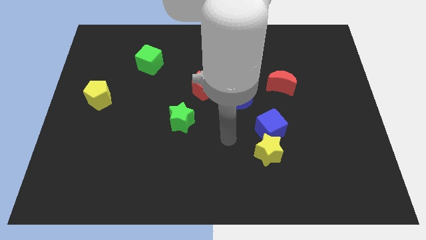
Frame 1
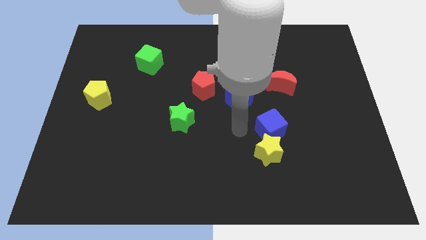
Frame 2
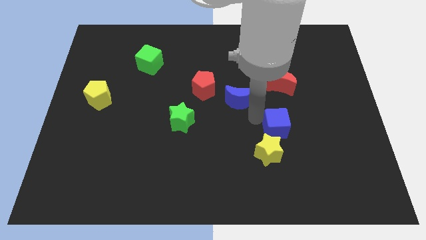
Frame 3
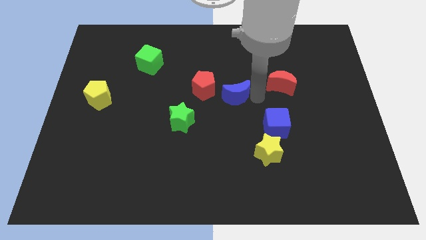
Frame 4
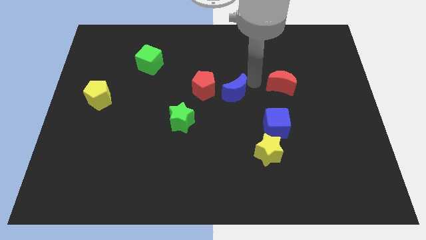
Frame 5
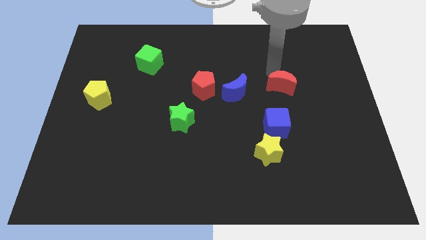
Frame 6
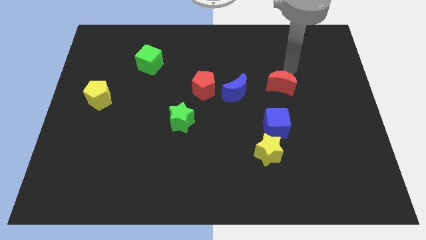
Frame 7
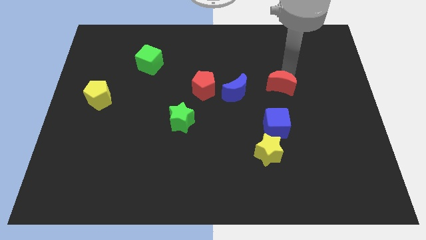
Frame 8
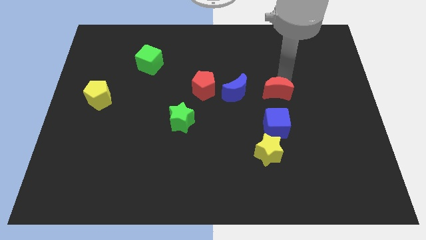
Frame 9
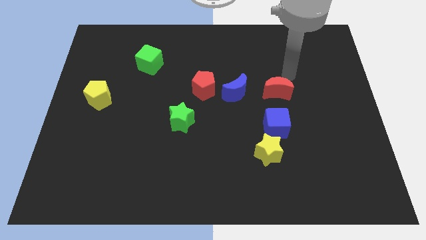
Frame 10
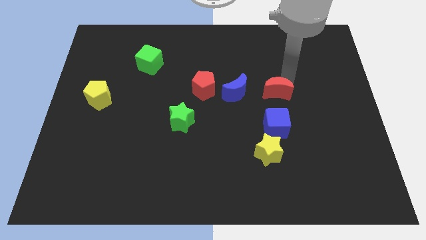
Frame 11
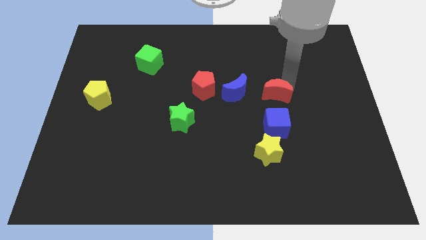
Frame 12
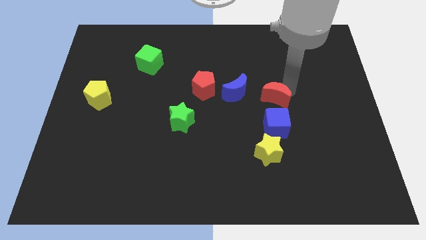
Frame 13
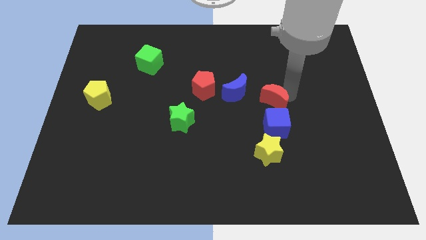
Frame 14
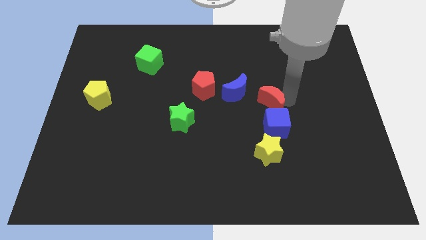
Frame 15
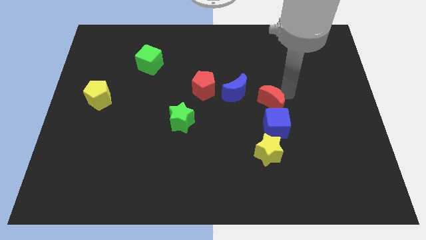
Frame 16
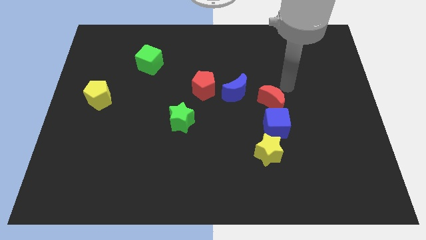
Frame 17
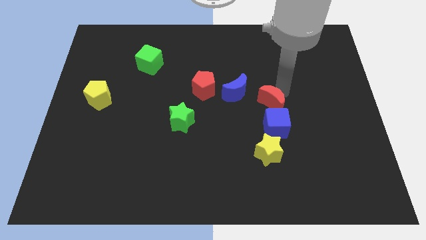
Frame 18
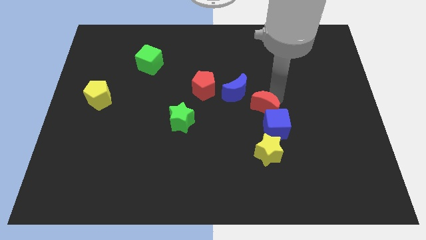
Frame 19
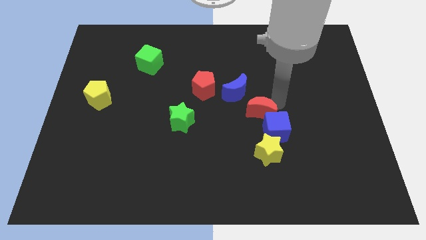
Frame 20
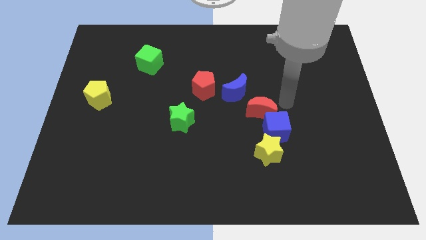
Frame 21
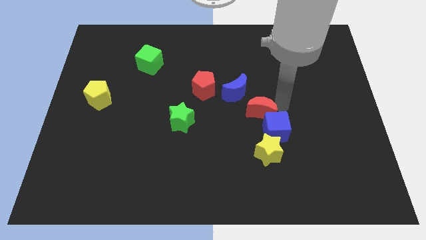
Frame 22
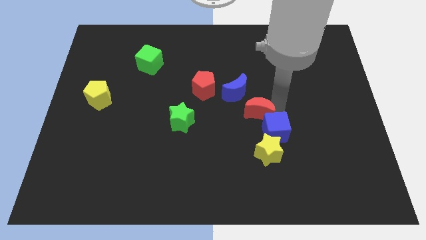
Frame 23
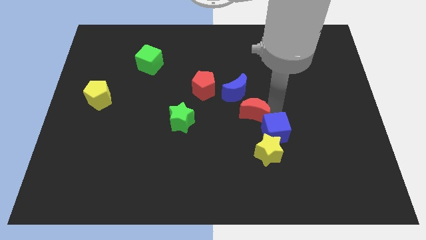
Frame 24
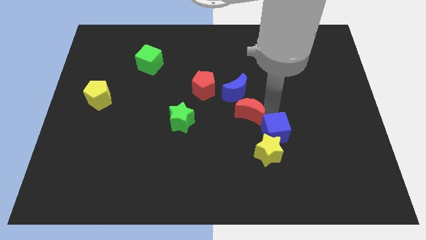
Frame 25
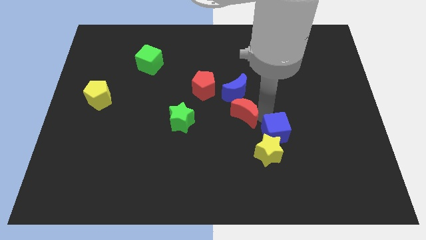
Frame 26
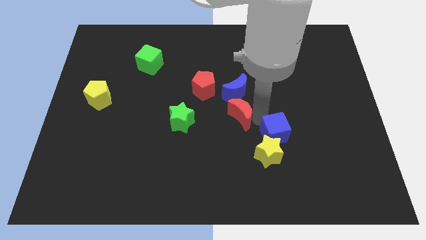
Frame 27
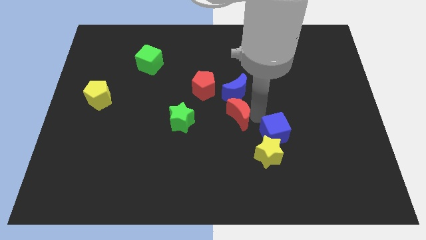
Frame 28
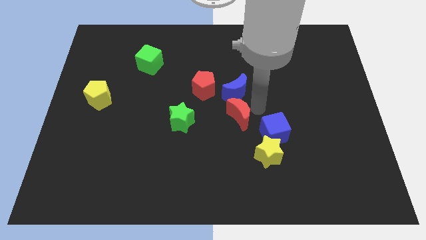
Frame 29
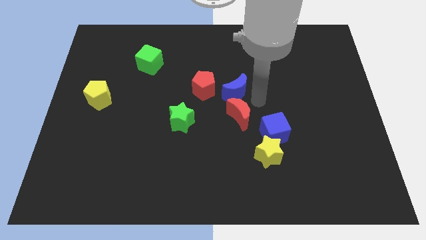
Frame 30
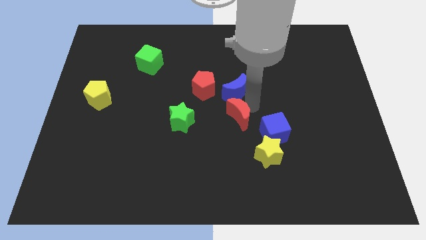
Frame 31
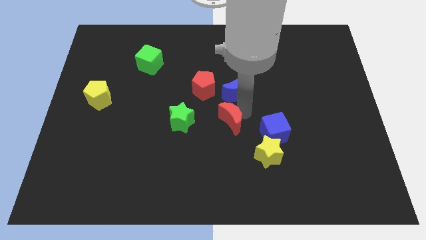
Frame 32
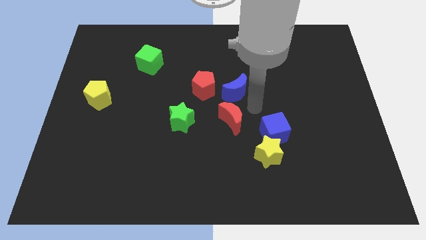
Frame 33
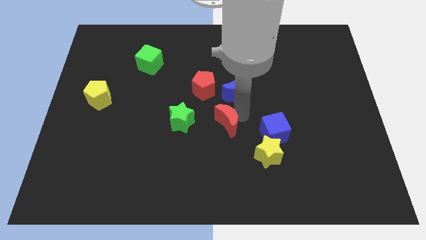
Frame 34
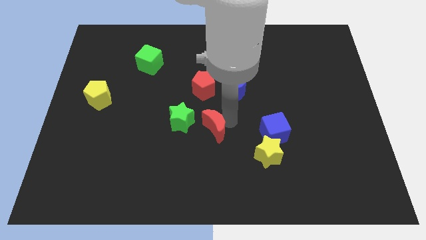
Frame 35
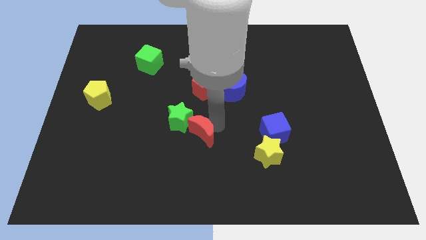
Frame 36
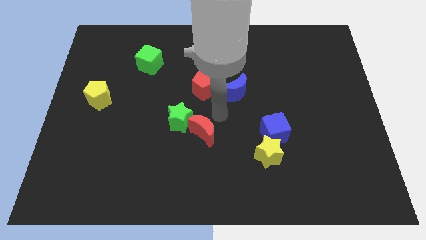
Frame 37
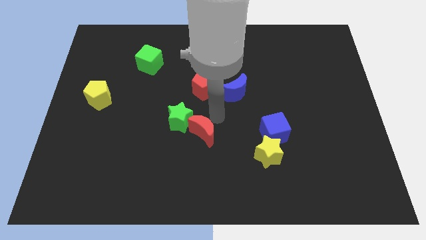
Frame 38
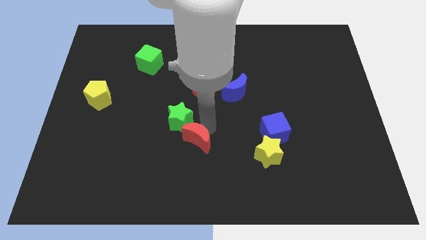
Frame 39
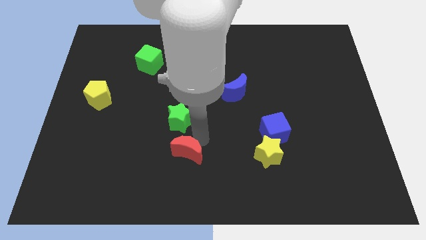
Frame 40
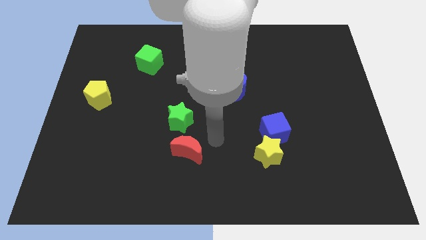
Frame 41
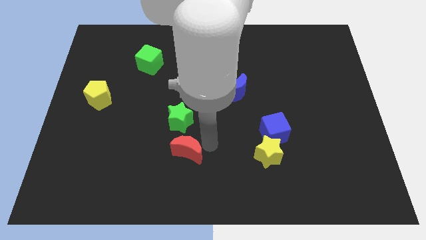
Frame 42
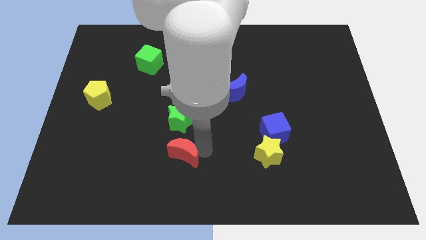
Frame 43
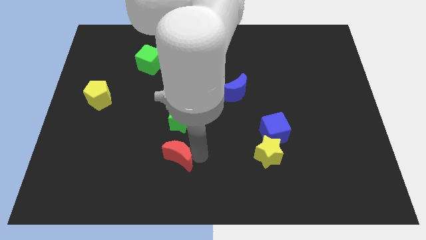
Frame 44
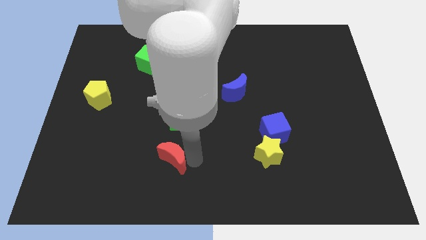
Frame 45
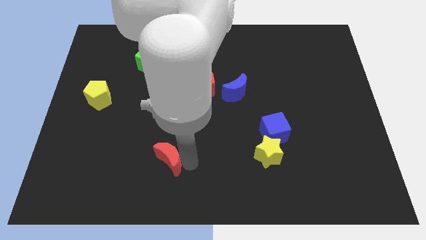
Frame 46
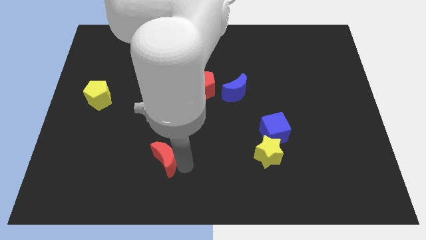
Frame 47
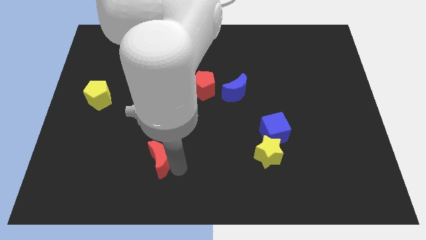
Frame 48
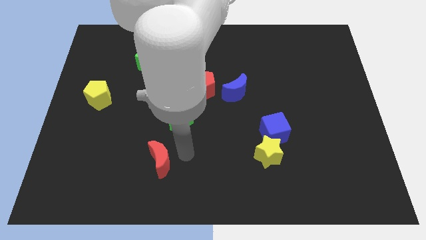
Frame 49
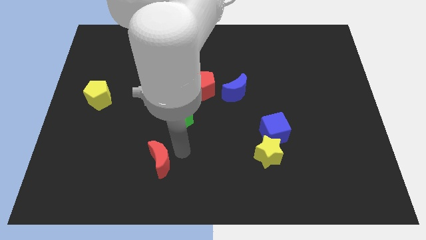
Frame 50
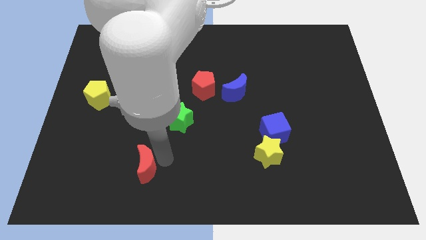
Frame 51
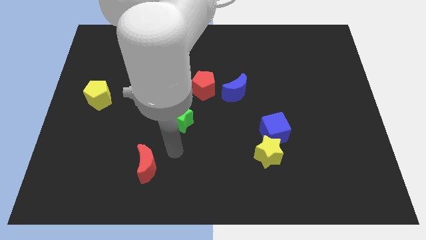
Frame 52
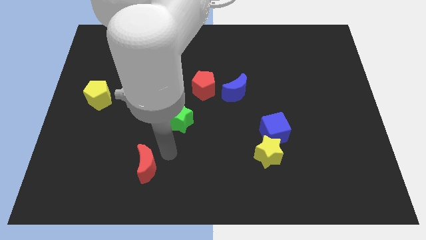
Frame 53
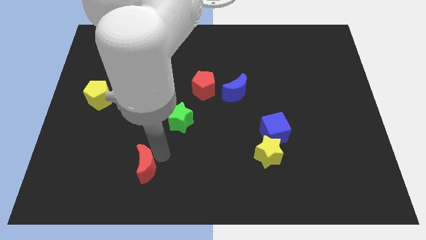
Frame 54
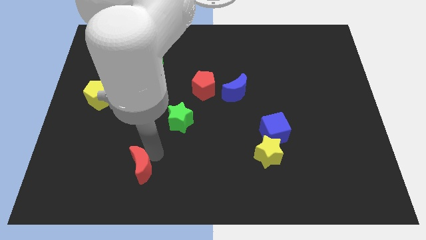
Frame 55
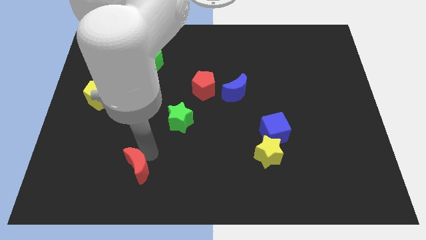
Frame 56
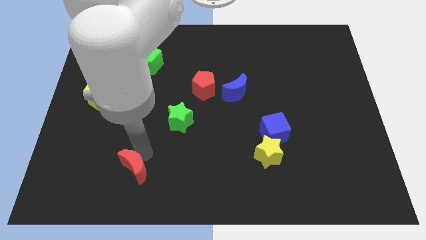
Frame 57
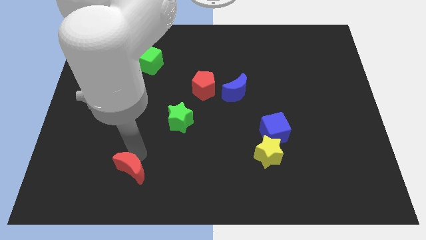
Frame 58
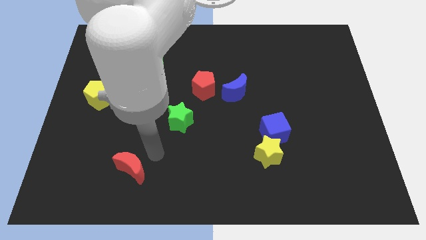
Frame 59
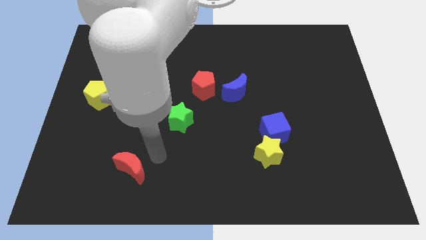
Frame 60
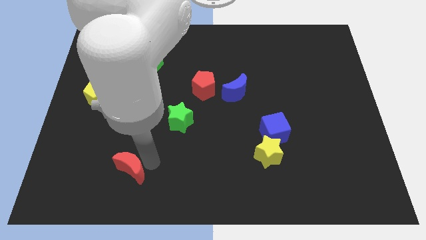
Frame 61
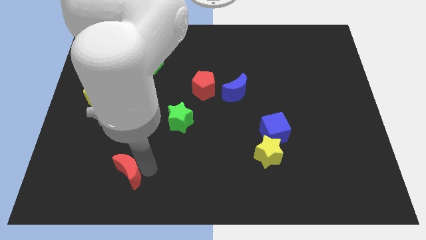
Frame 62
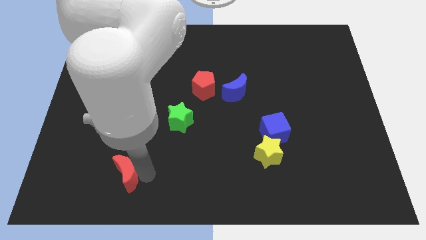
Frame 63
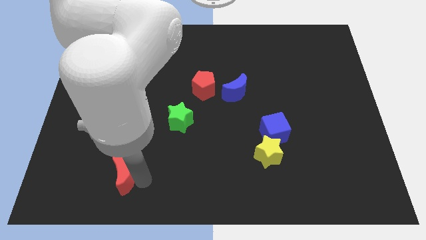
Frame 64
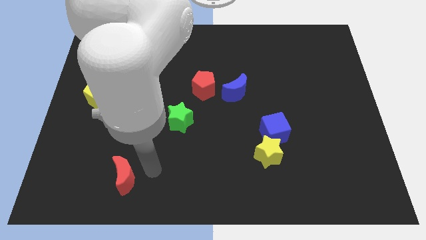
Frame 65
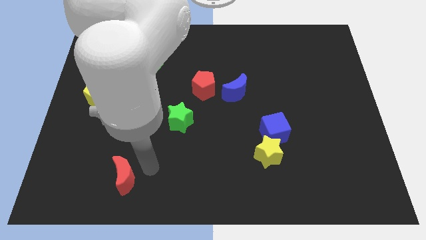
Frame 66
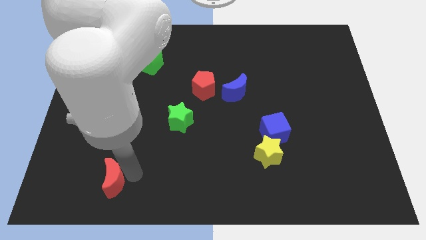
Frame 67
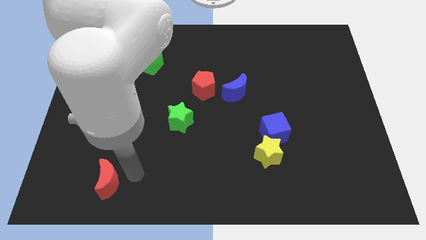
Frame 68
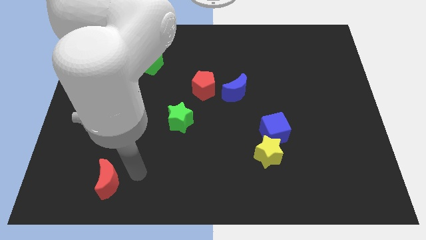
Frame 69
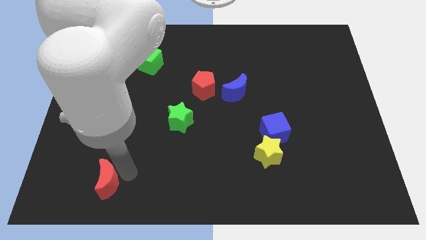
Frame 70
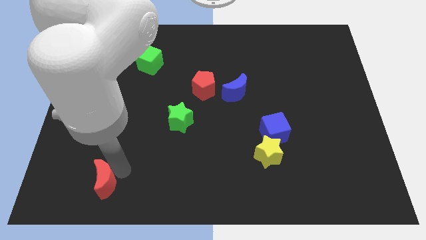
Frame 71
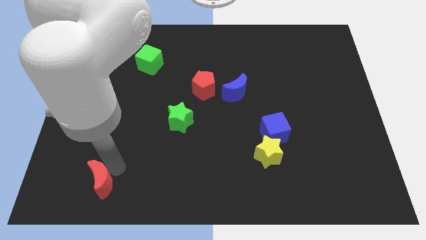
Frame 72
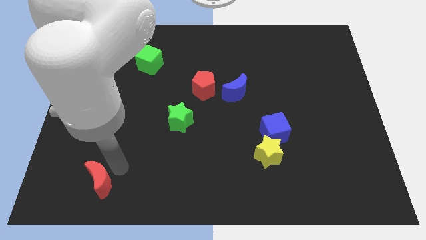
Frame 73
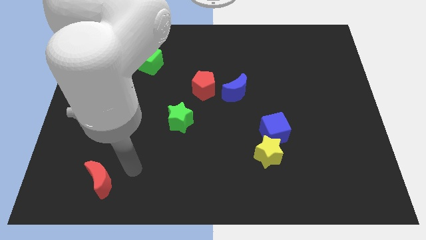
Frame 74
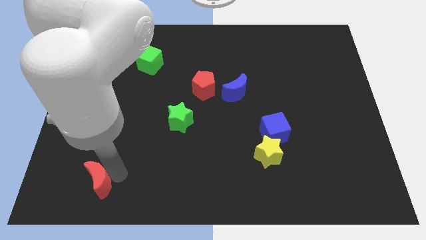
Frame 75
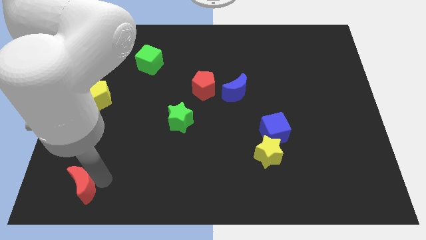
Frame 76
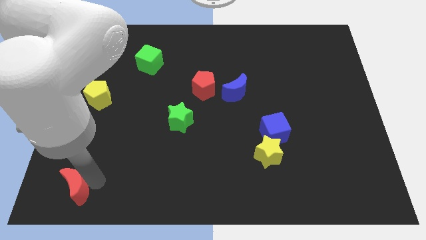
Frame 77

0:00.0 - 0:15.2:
push the red moon to the bottom left of the board
